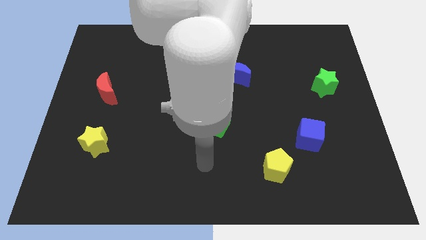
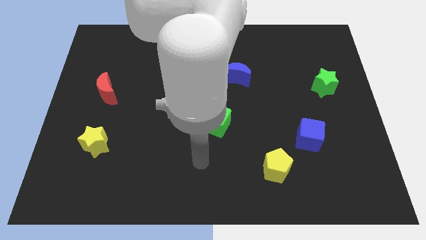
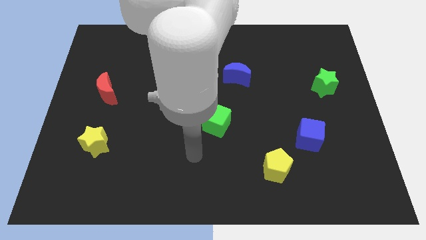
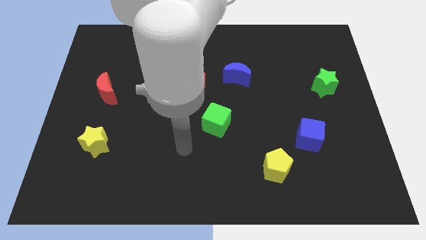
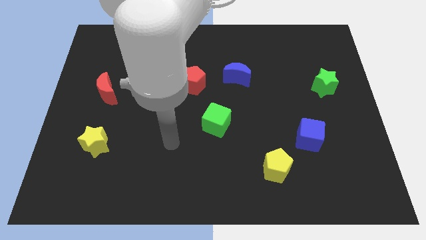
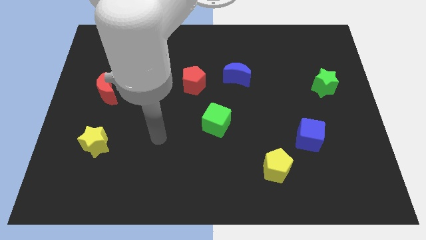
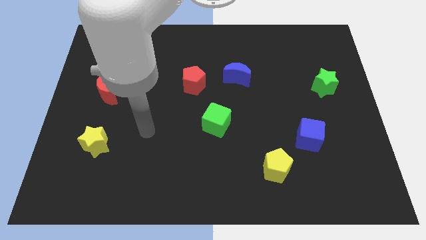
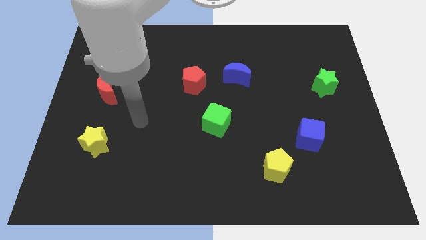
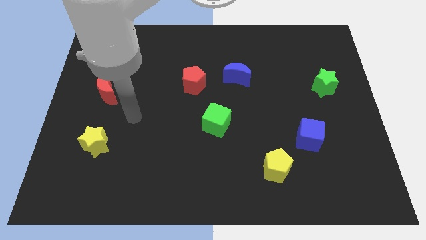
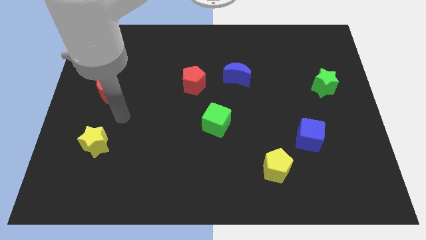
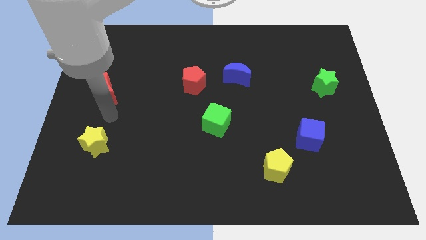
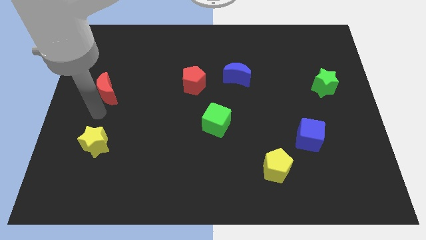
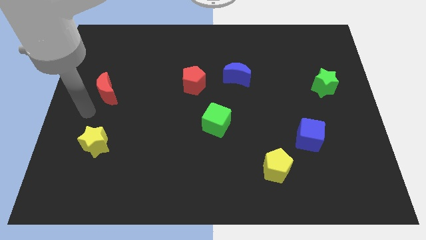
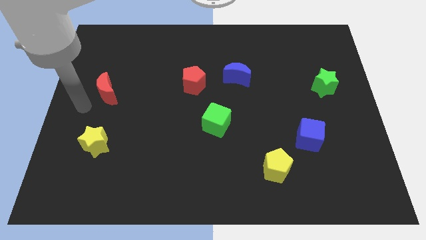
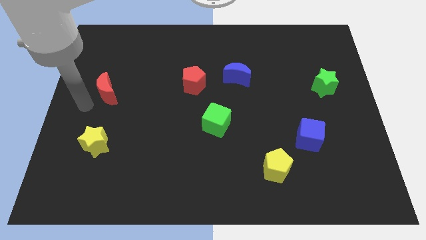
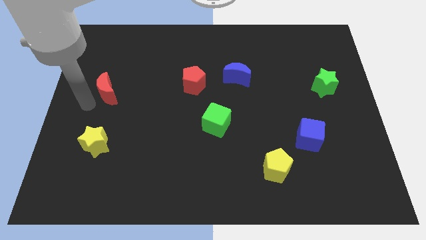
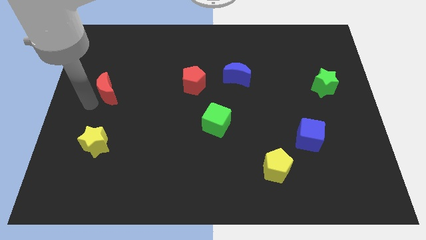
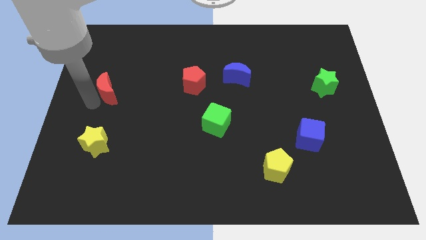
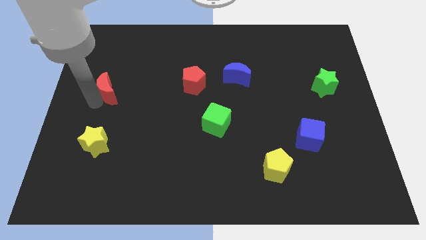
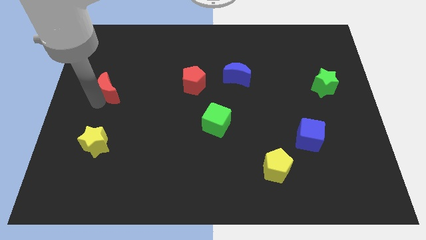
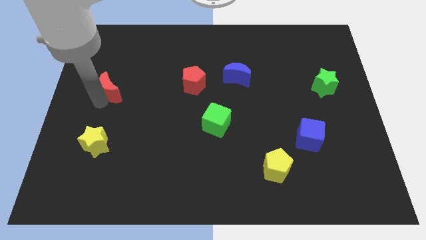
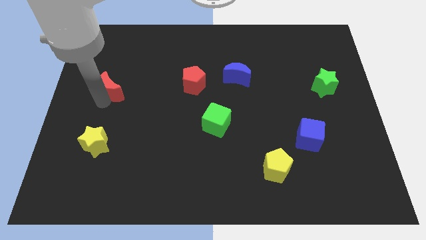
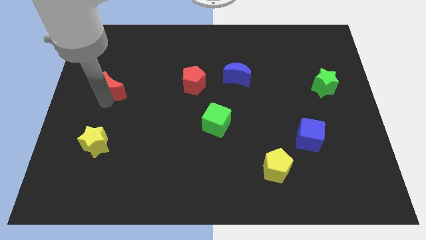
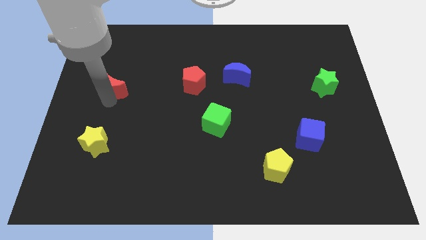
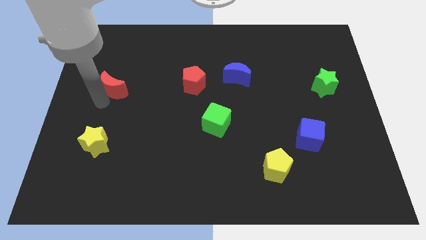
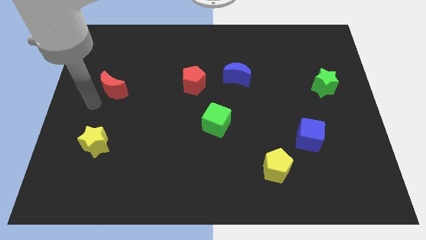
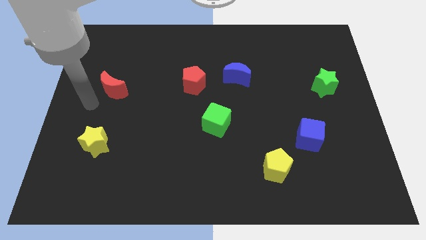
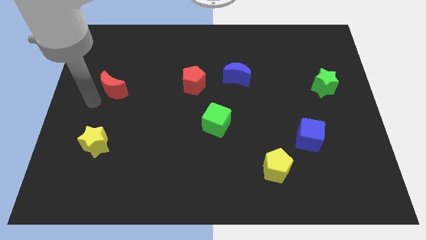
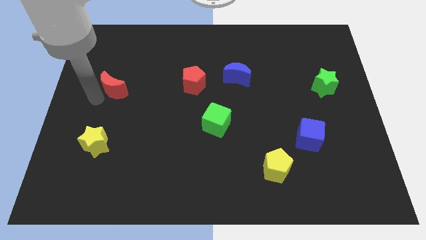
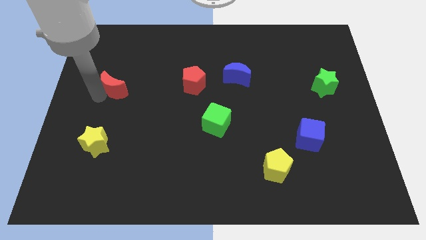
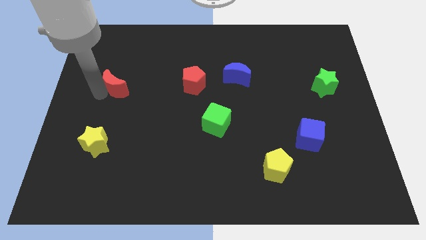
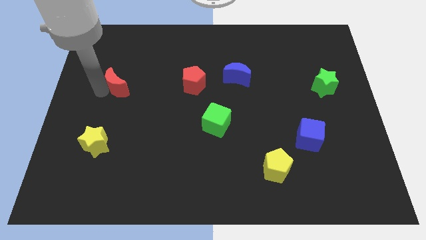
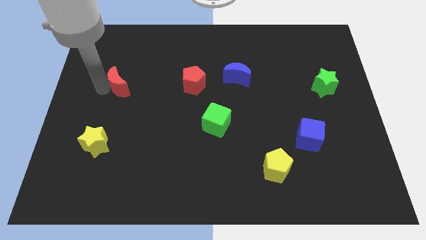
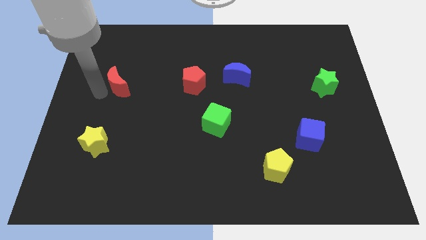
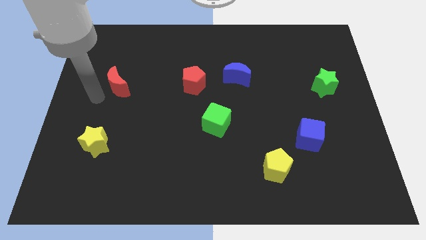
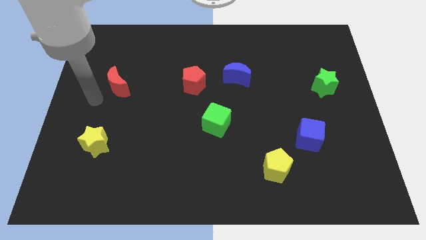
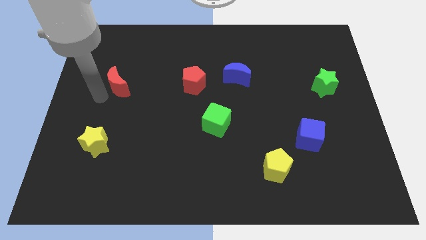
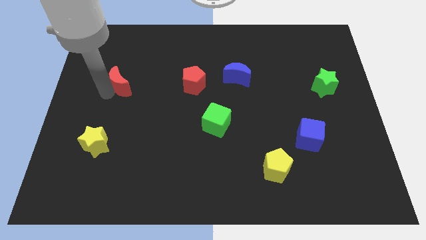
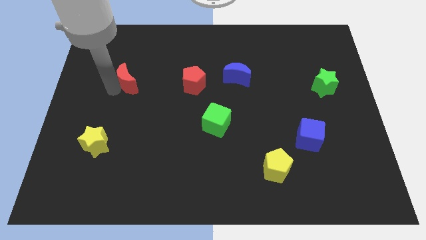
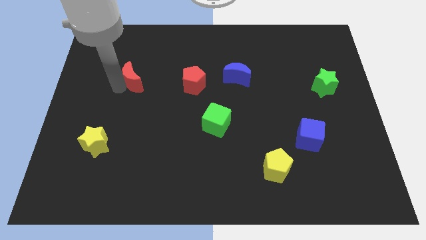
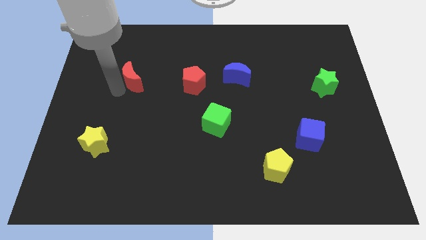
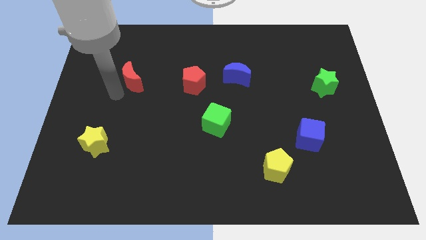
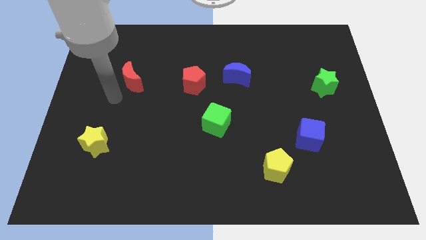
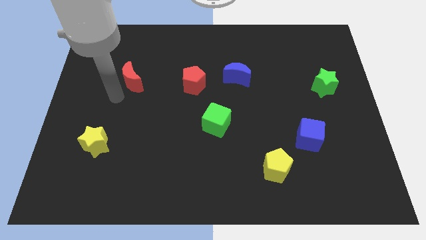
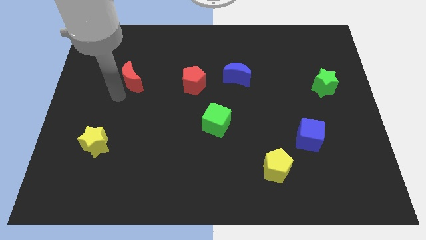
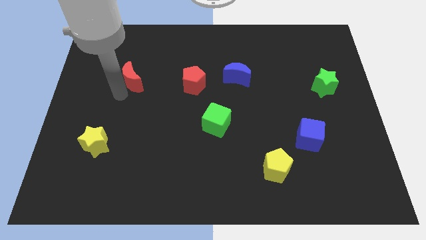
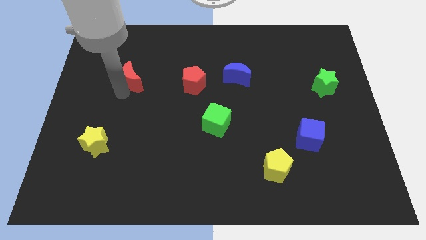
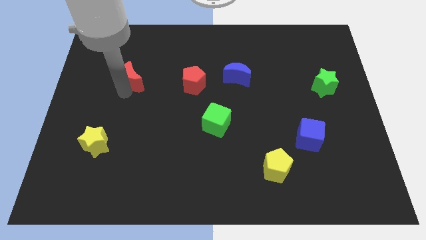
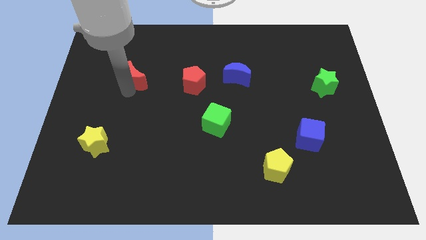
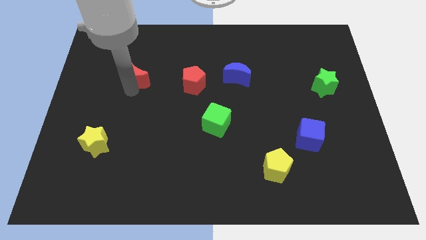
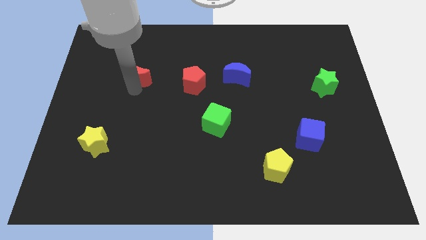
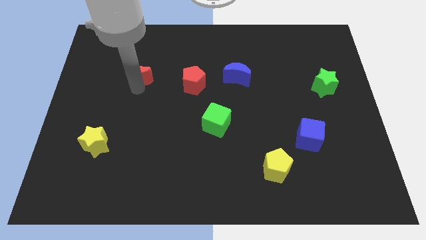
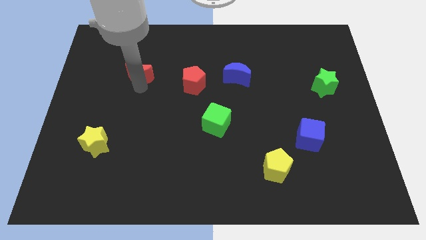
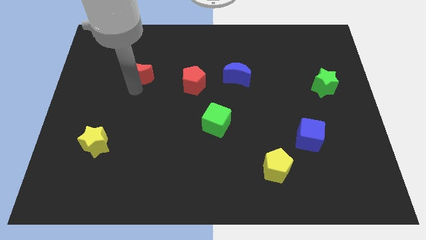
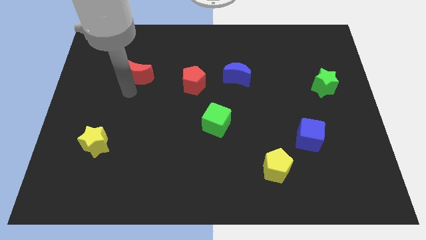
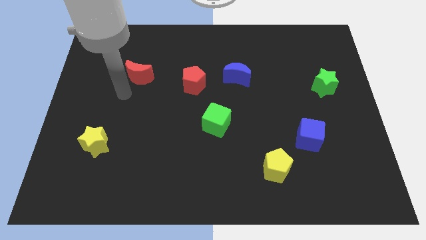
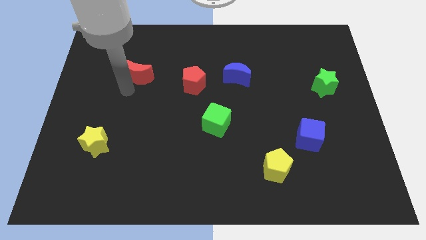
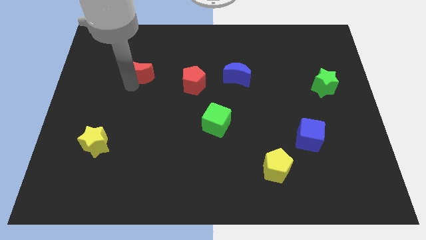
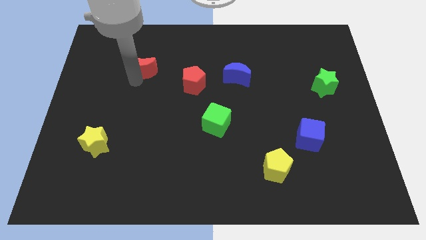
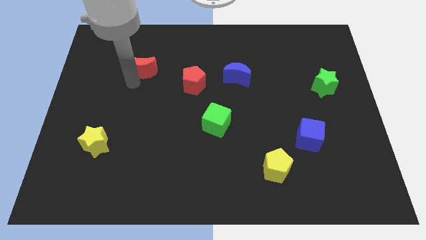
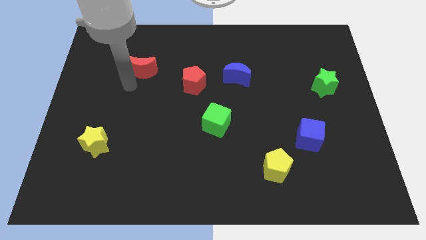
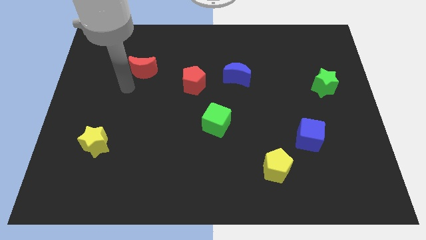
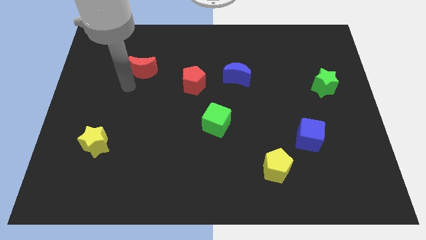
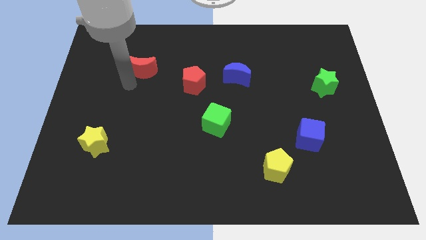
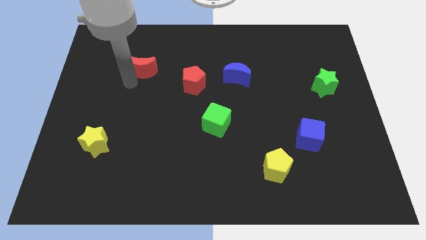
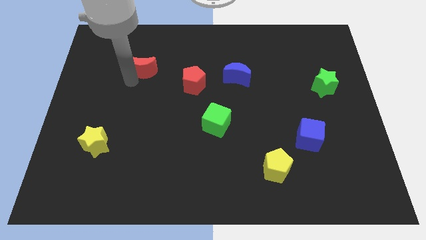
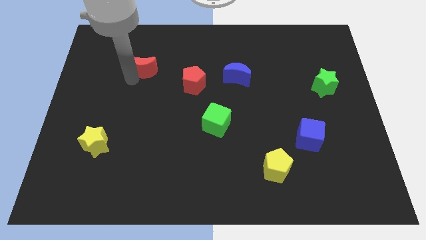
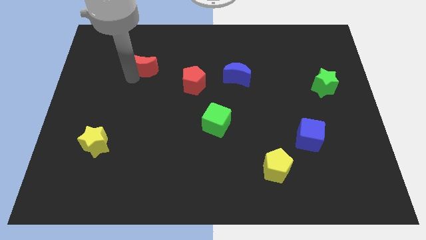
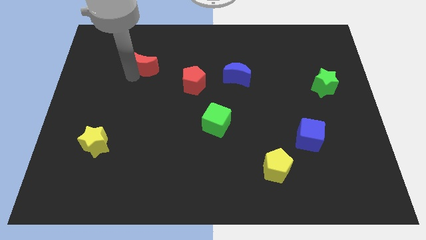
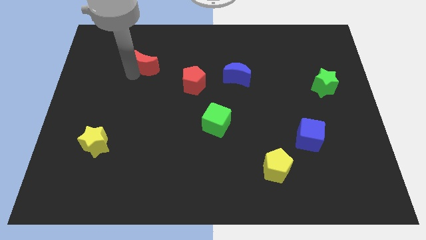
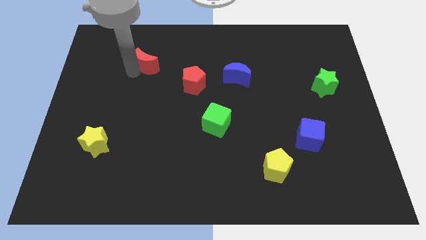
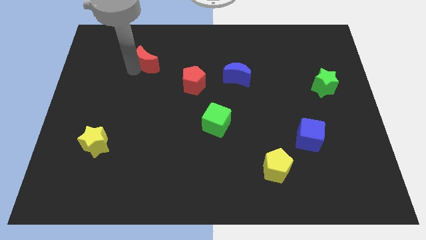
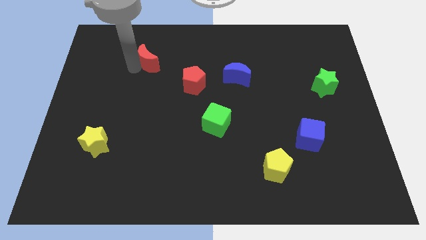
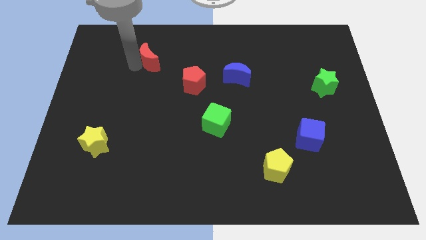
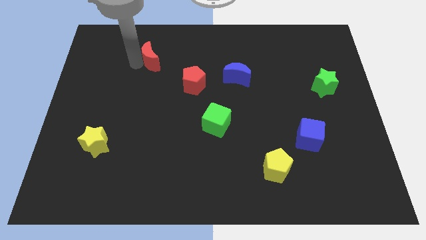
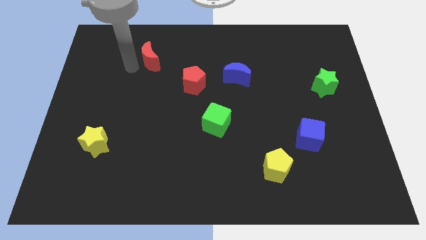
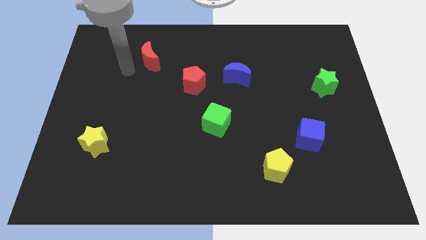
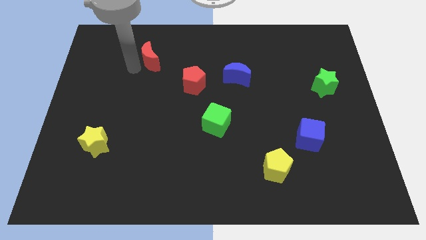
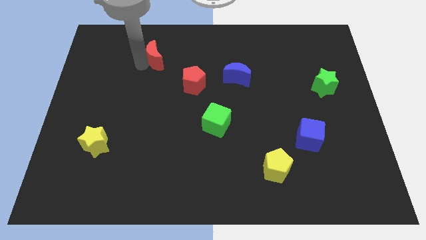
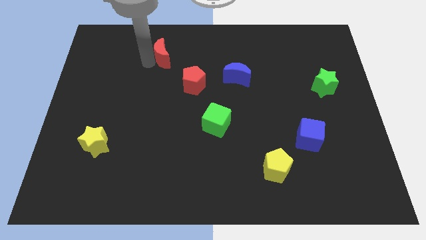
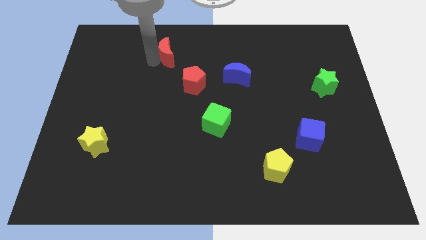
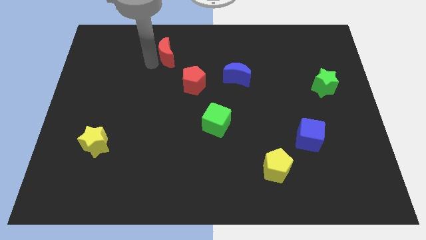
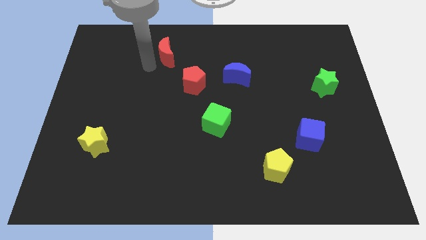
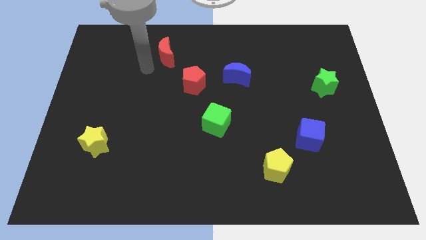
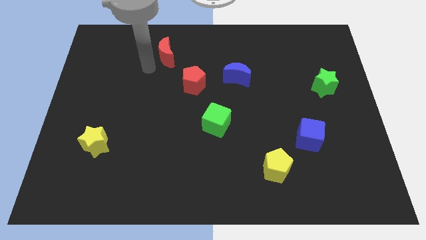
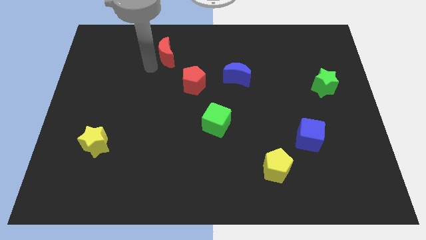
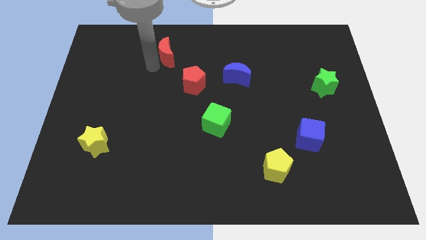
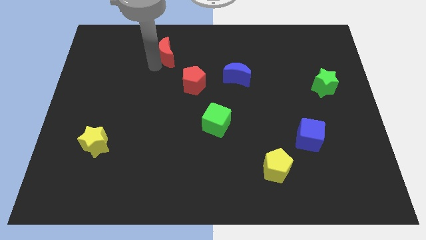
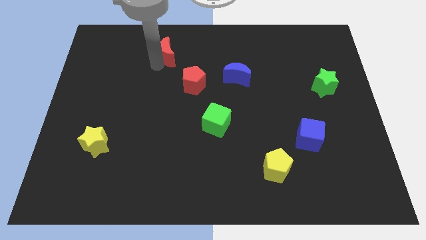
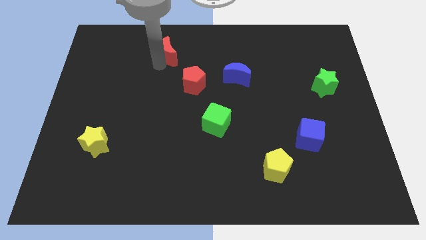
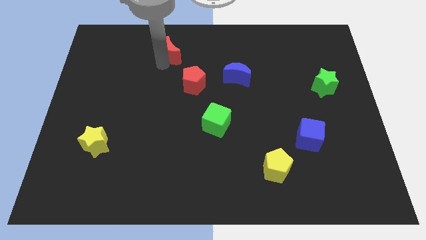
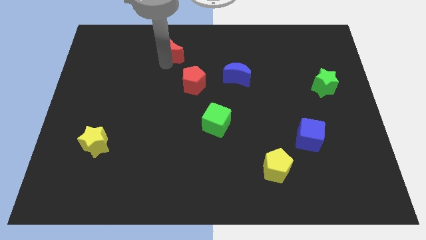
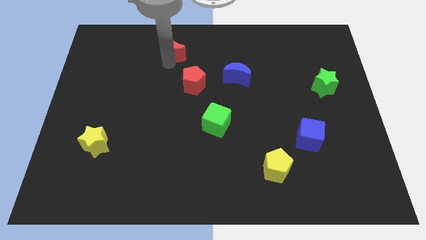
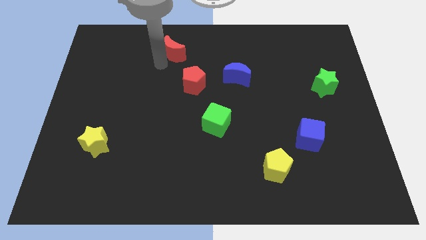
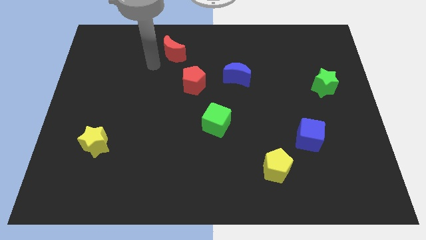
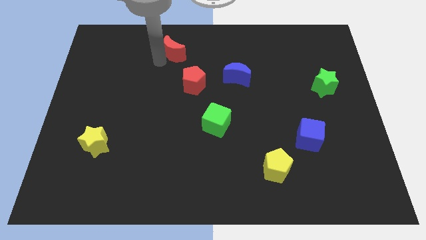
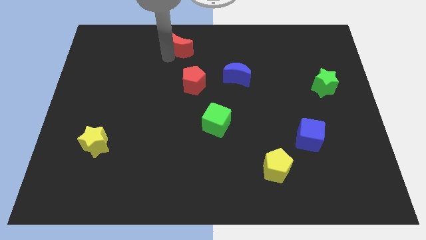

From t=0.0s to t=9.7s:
slide the red moon to the top side
